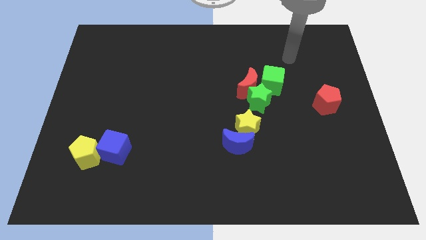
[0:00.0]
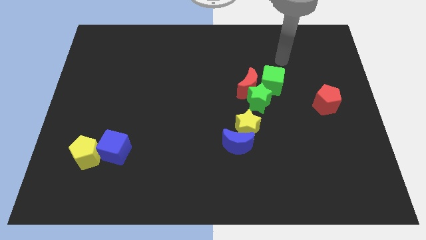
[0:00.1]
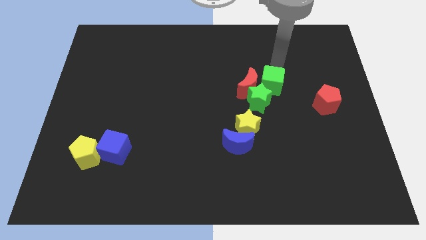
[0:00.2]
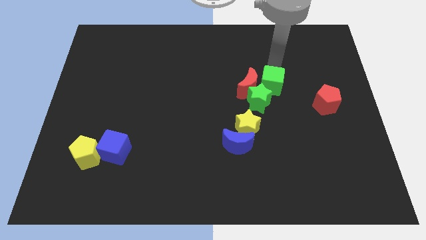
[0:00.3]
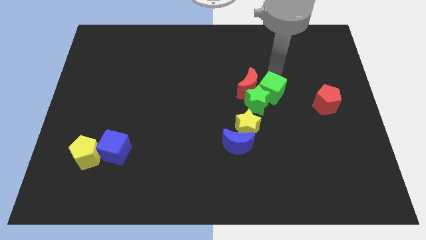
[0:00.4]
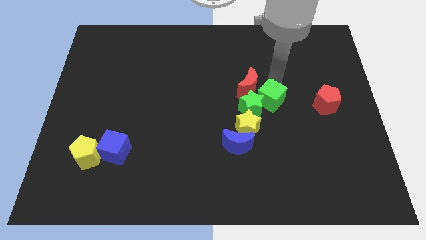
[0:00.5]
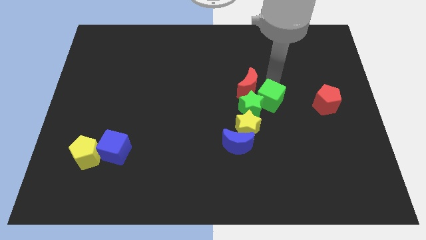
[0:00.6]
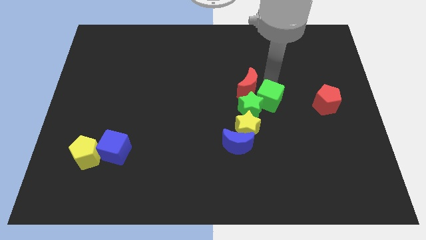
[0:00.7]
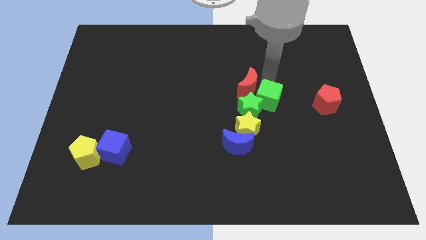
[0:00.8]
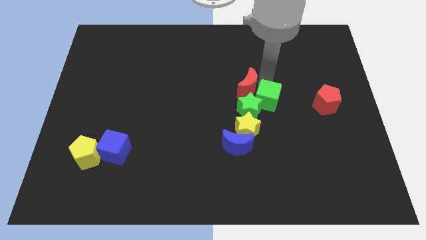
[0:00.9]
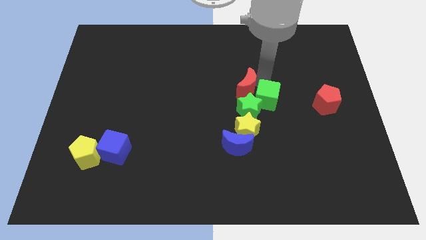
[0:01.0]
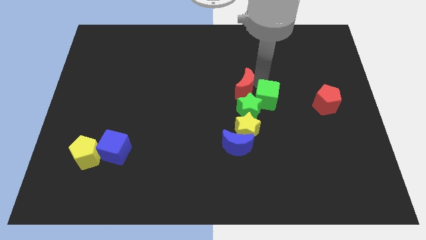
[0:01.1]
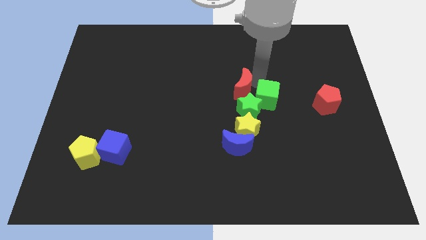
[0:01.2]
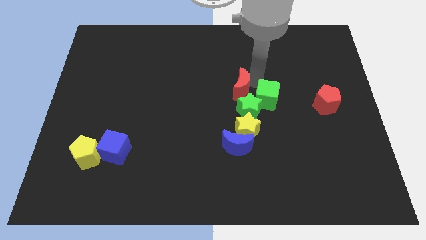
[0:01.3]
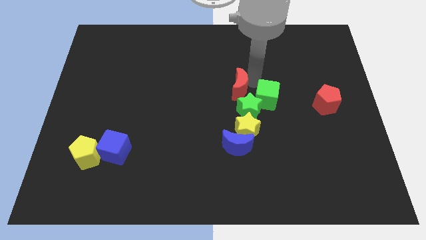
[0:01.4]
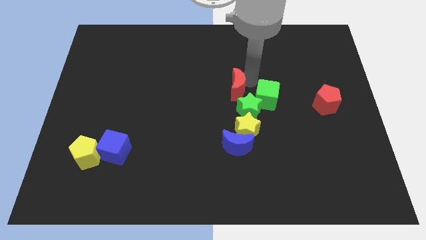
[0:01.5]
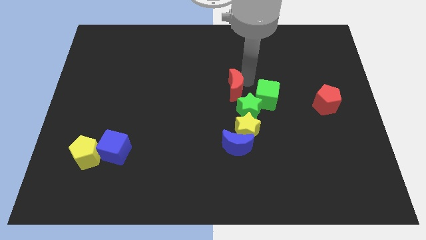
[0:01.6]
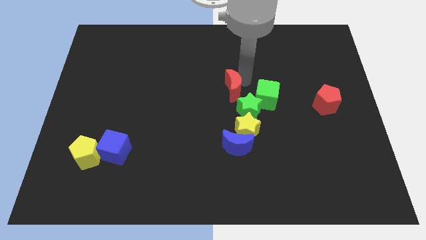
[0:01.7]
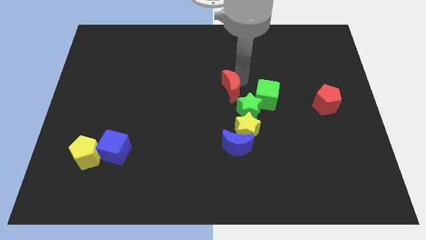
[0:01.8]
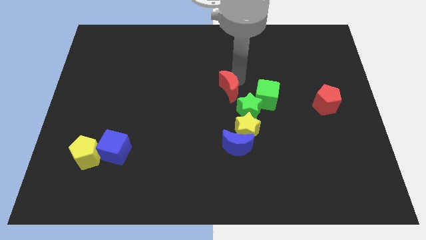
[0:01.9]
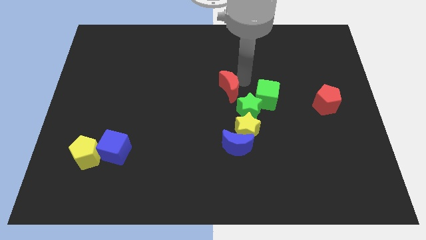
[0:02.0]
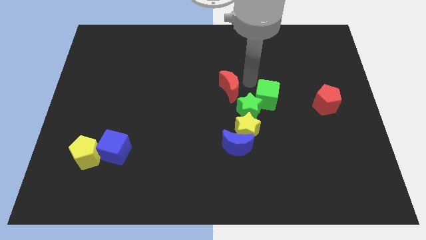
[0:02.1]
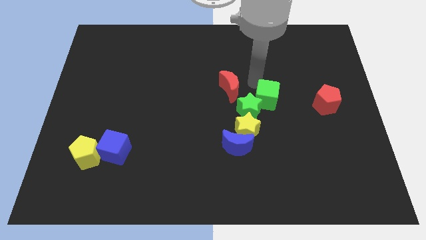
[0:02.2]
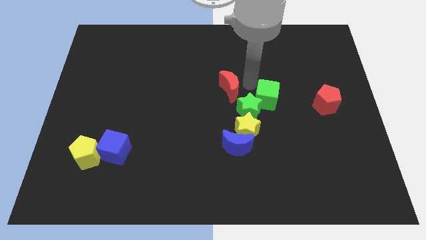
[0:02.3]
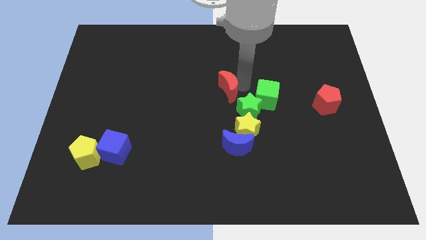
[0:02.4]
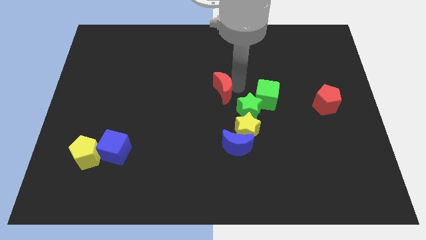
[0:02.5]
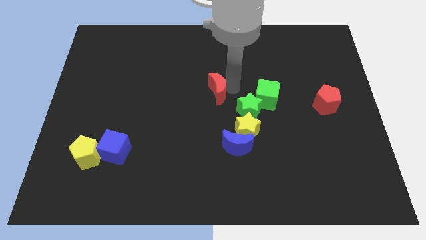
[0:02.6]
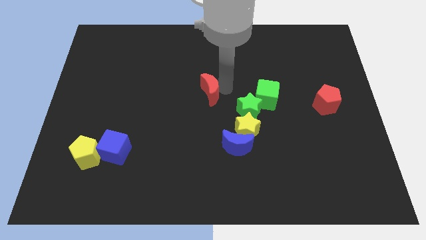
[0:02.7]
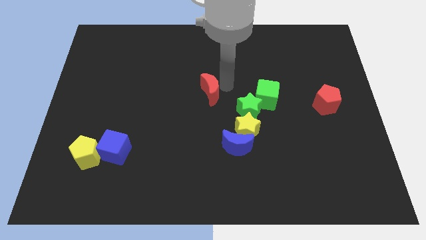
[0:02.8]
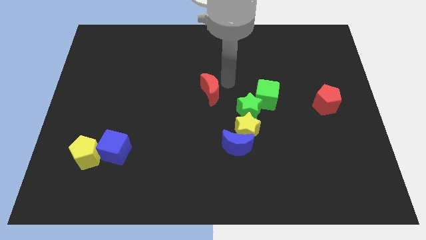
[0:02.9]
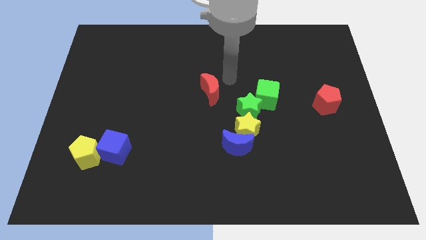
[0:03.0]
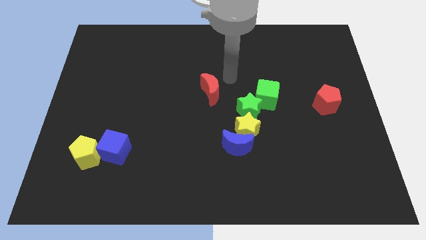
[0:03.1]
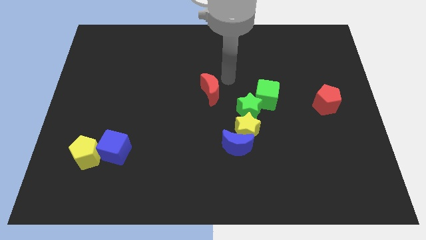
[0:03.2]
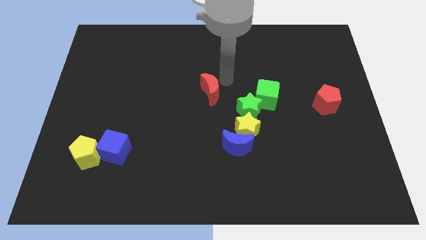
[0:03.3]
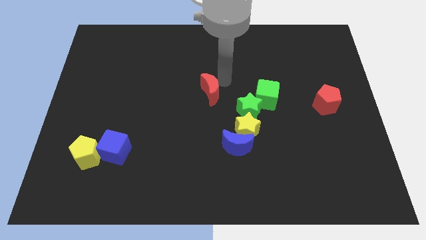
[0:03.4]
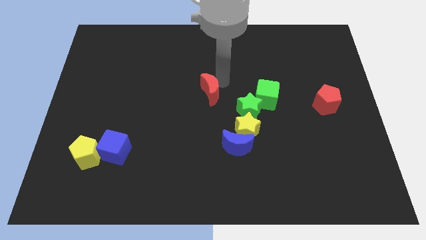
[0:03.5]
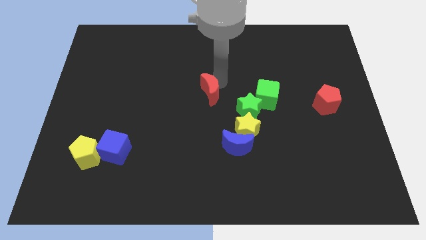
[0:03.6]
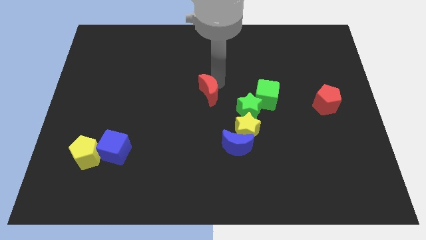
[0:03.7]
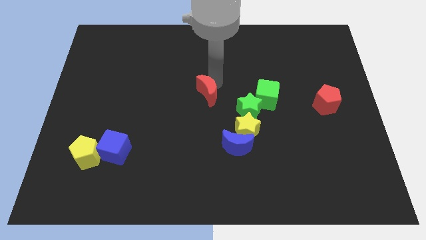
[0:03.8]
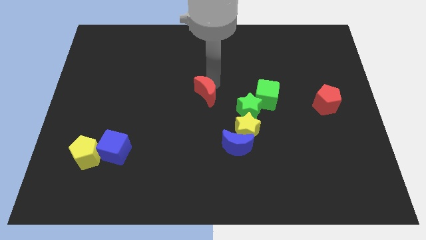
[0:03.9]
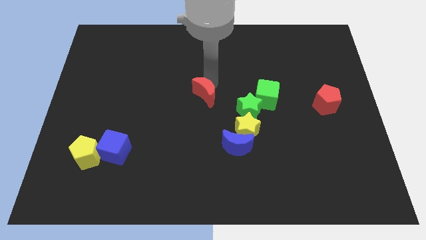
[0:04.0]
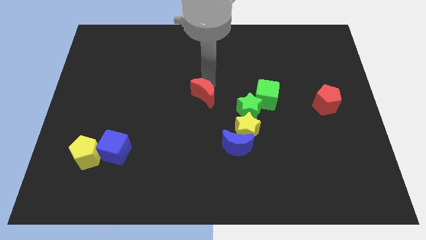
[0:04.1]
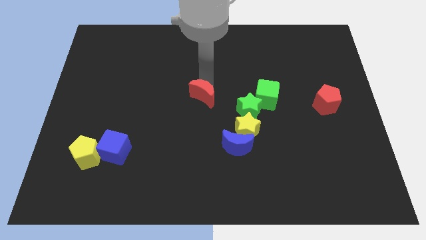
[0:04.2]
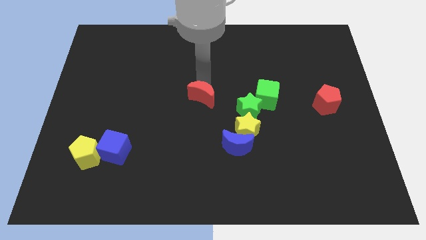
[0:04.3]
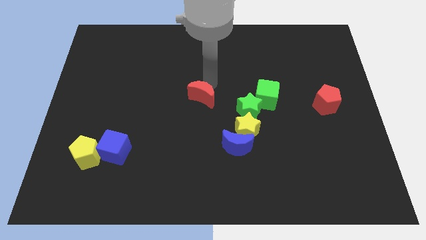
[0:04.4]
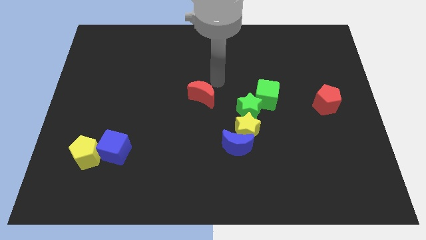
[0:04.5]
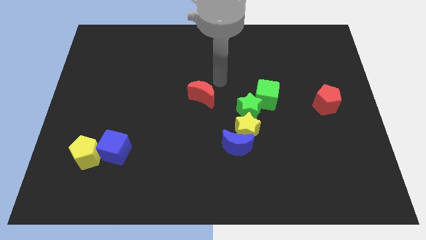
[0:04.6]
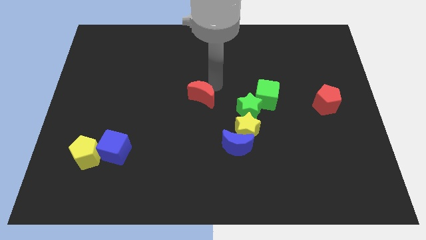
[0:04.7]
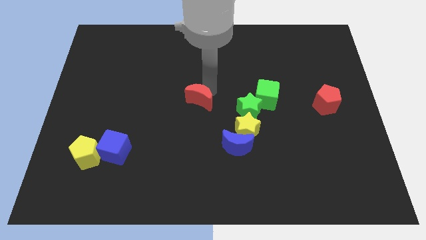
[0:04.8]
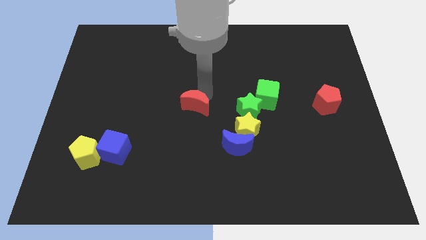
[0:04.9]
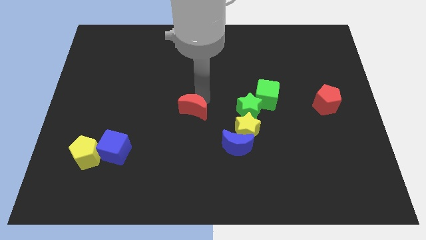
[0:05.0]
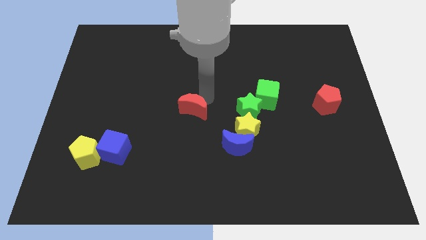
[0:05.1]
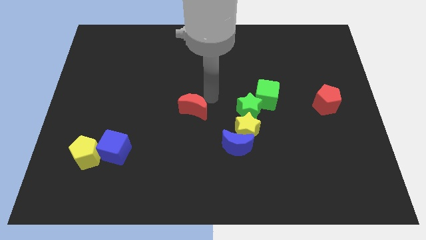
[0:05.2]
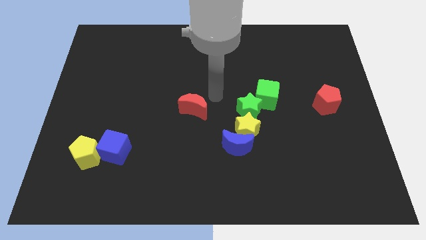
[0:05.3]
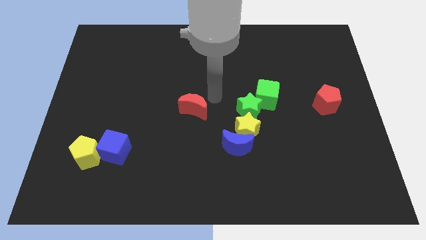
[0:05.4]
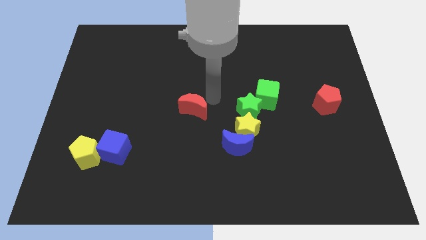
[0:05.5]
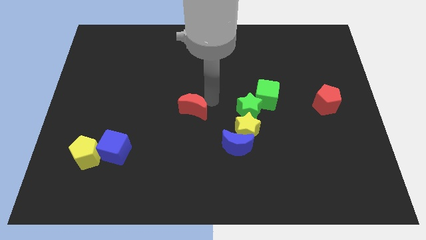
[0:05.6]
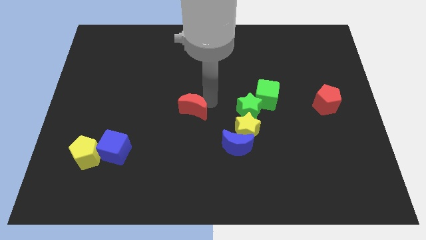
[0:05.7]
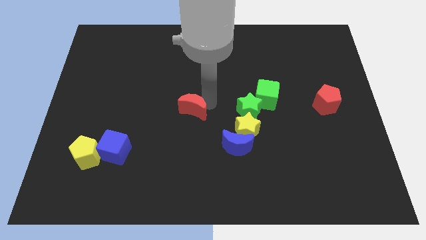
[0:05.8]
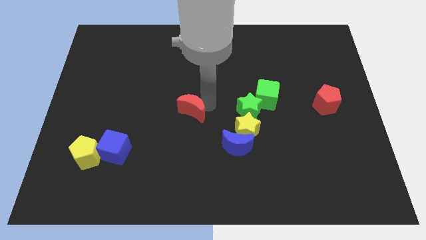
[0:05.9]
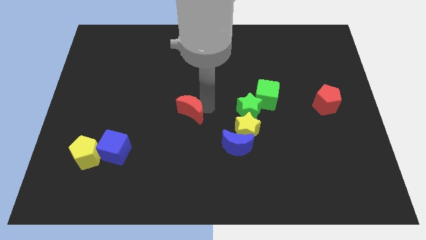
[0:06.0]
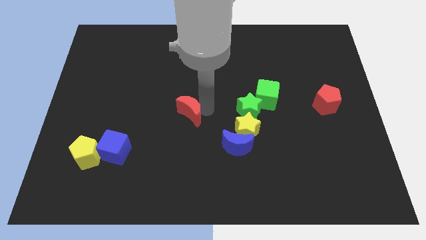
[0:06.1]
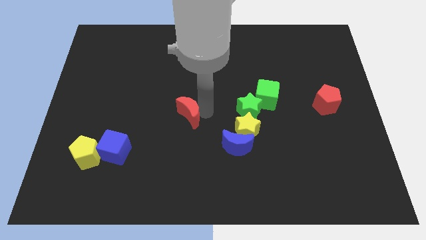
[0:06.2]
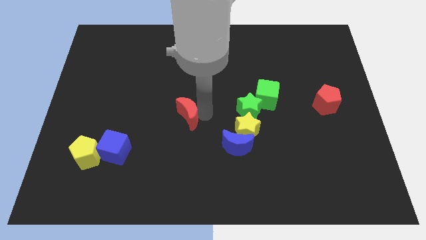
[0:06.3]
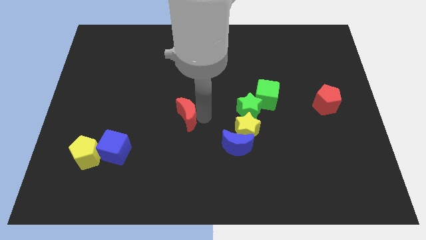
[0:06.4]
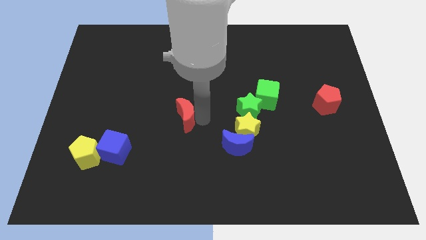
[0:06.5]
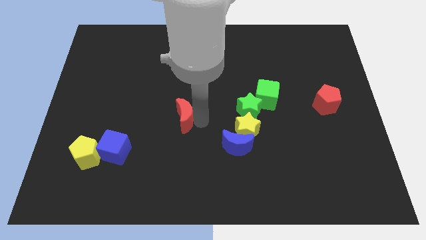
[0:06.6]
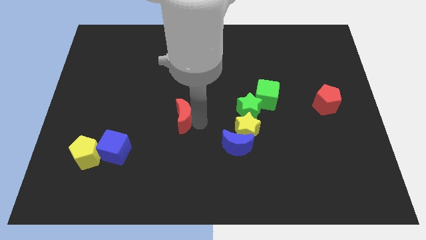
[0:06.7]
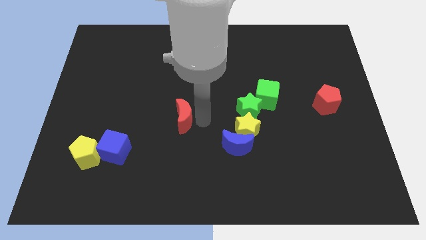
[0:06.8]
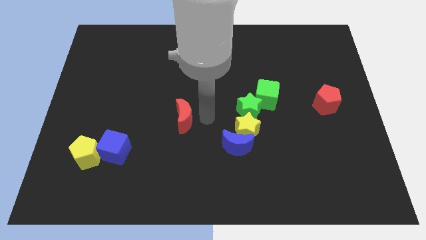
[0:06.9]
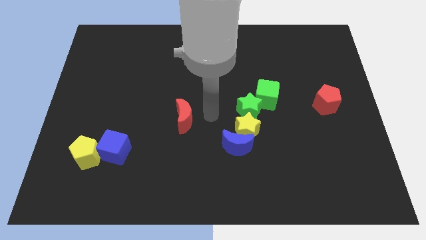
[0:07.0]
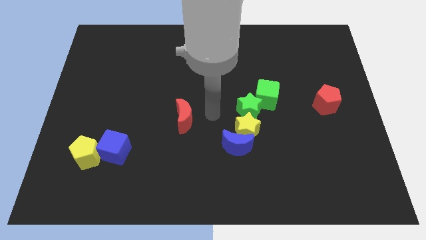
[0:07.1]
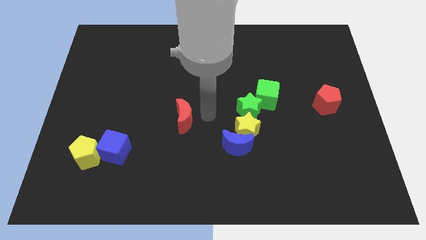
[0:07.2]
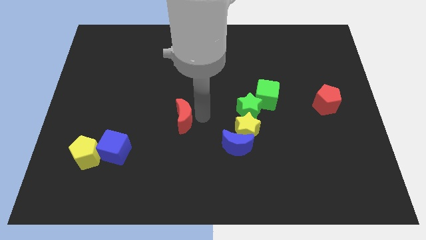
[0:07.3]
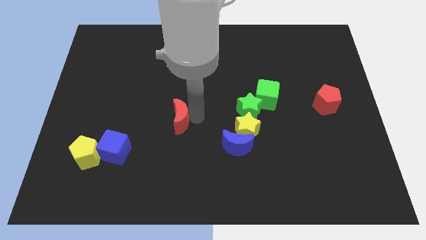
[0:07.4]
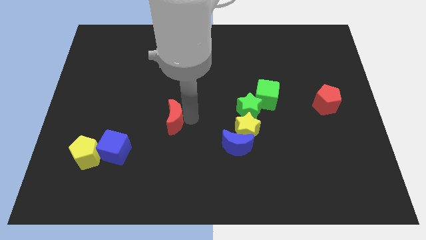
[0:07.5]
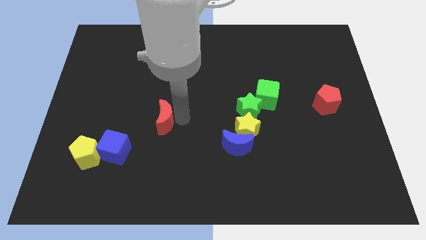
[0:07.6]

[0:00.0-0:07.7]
move the red moon diagonally up and to the right of the blue cube
